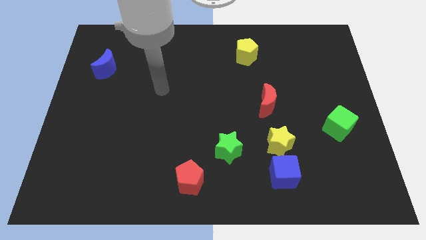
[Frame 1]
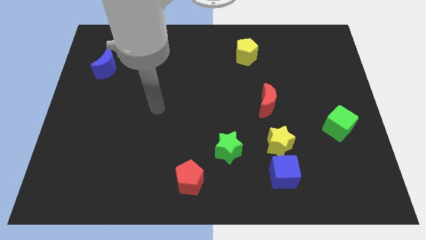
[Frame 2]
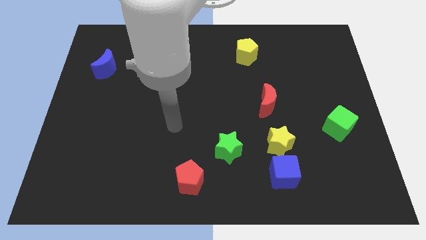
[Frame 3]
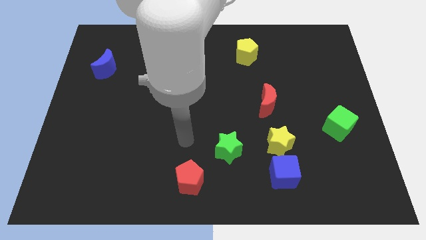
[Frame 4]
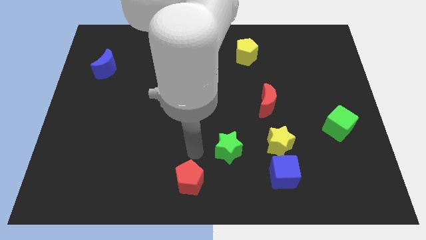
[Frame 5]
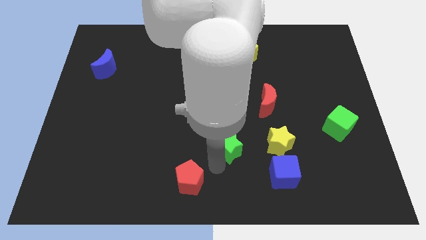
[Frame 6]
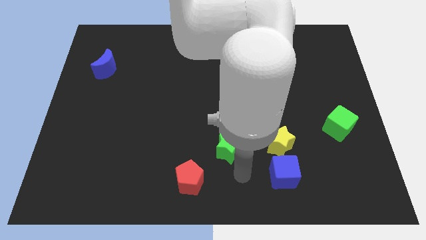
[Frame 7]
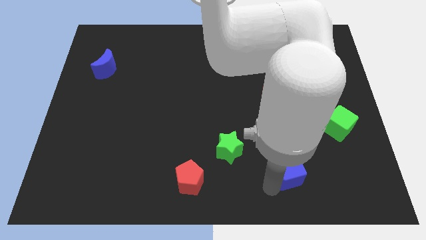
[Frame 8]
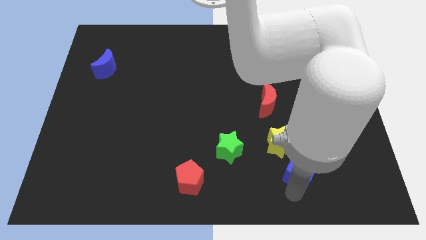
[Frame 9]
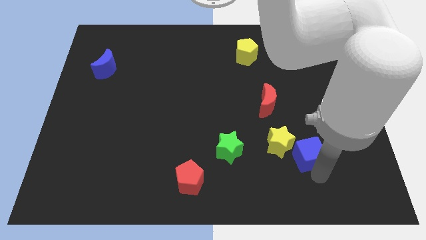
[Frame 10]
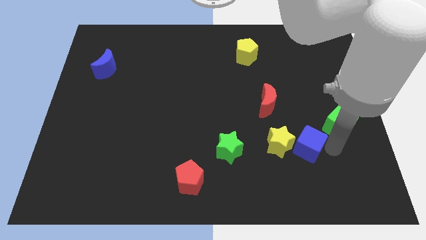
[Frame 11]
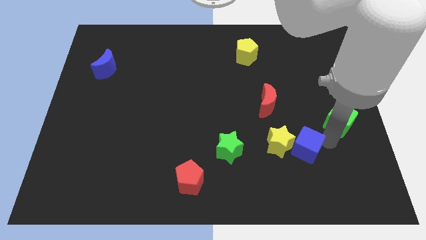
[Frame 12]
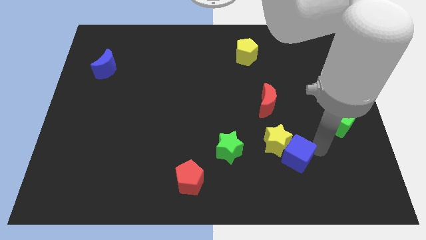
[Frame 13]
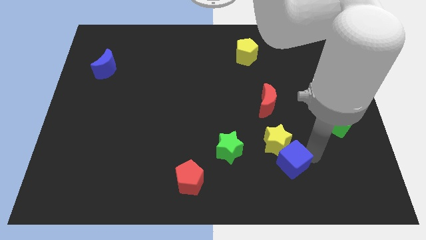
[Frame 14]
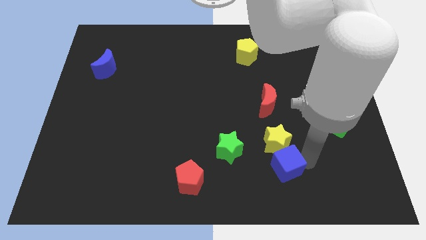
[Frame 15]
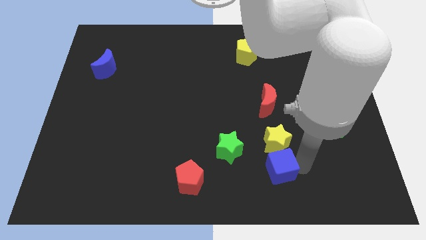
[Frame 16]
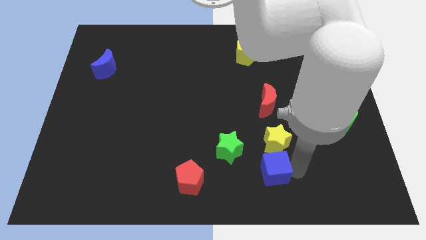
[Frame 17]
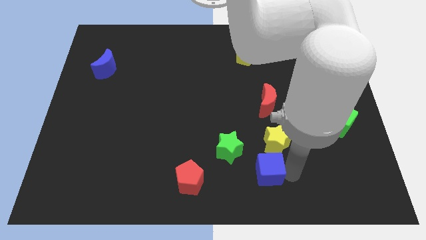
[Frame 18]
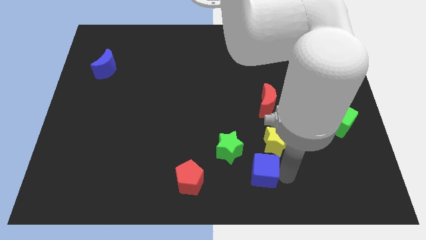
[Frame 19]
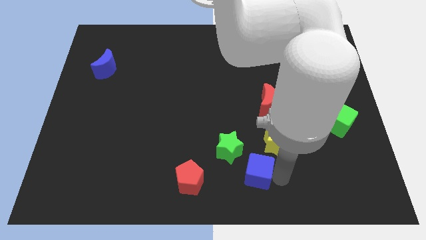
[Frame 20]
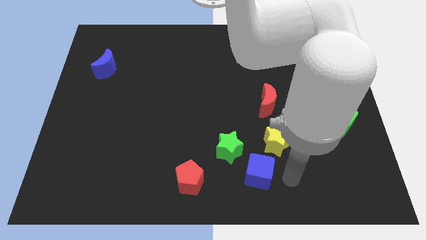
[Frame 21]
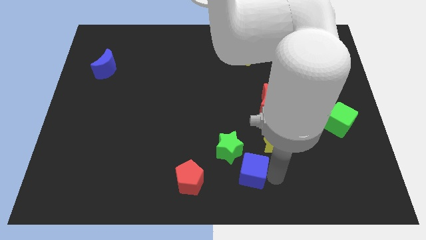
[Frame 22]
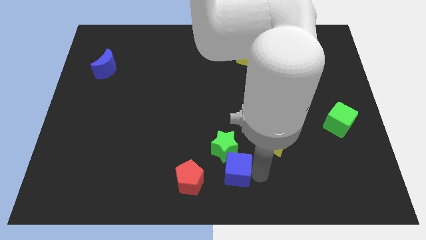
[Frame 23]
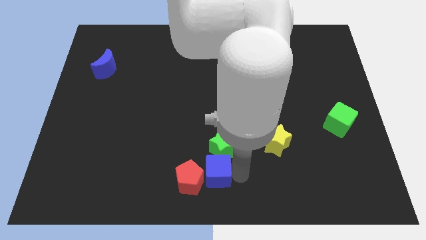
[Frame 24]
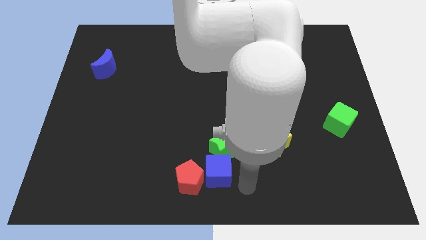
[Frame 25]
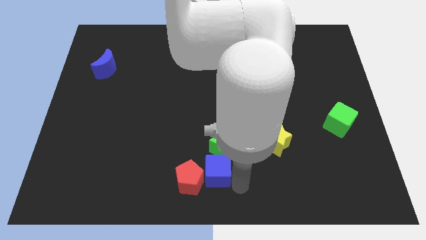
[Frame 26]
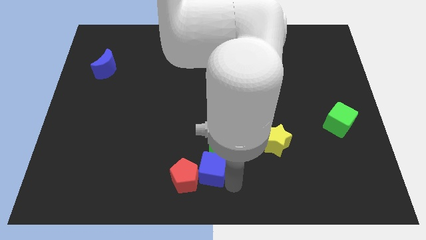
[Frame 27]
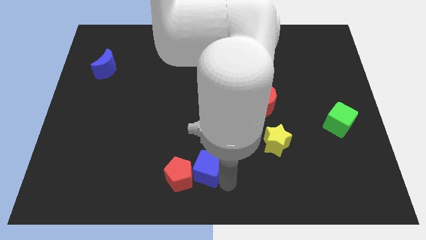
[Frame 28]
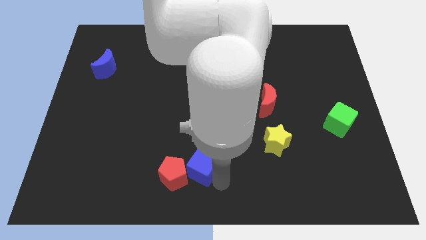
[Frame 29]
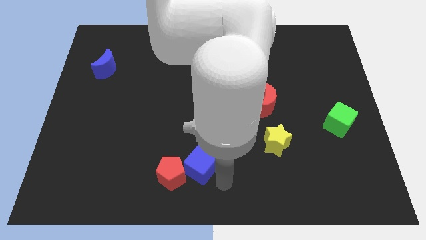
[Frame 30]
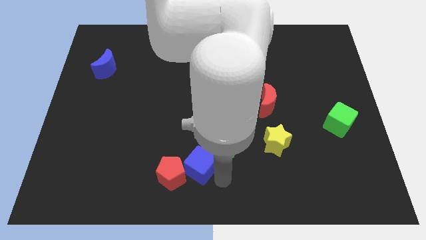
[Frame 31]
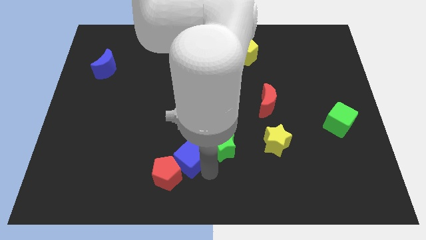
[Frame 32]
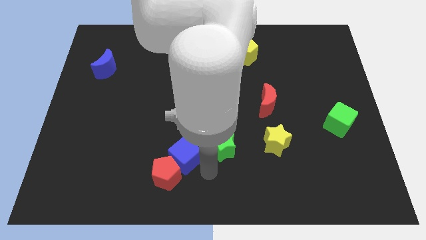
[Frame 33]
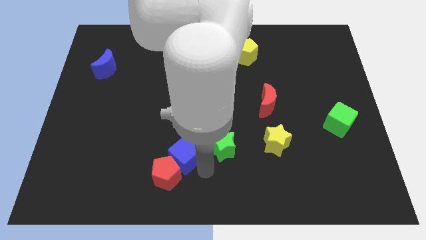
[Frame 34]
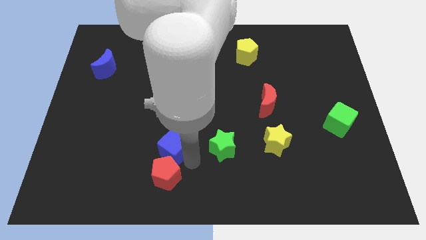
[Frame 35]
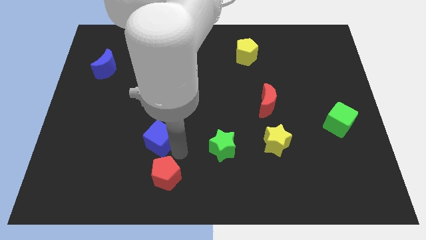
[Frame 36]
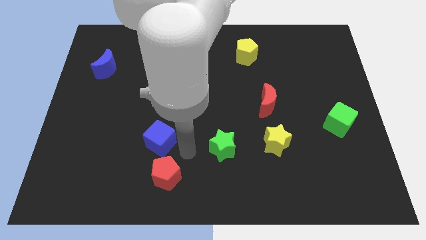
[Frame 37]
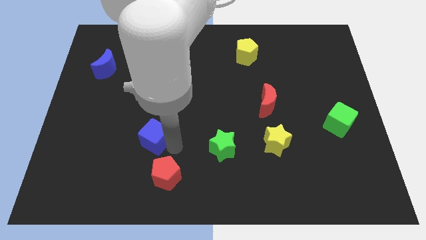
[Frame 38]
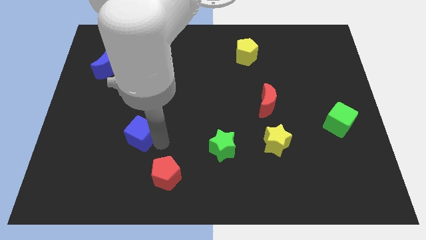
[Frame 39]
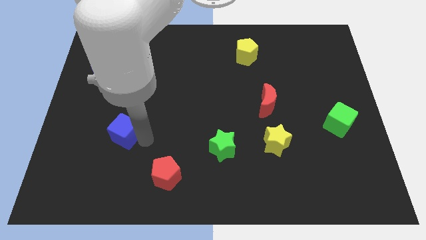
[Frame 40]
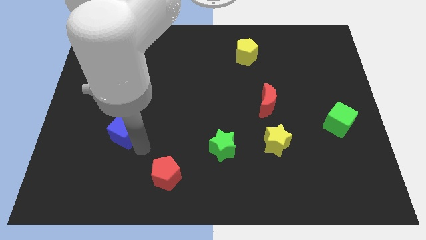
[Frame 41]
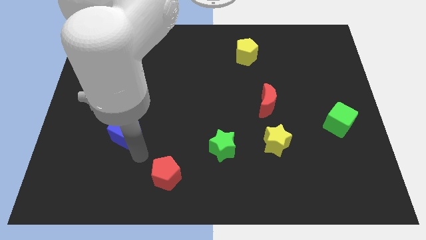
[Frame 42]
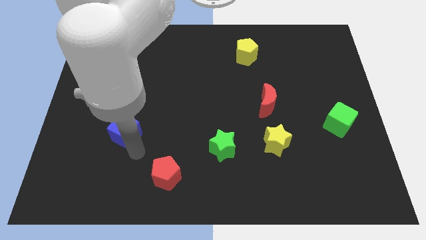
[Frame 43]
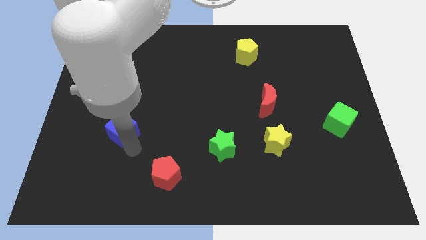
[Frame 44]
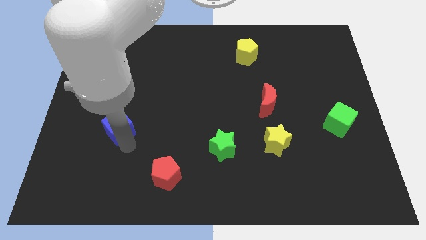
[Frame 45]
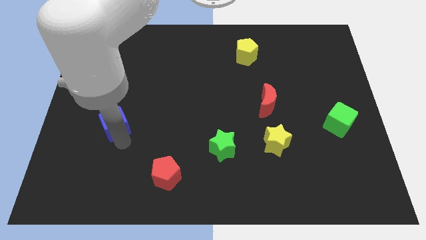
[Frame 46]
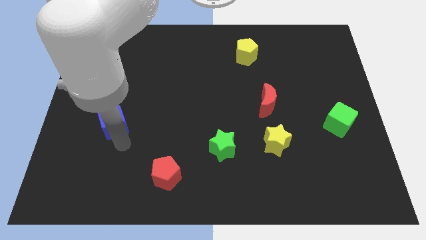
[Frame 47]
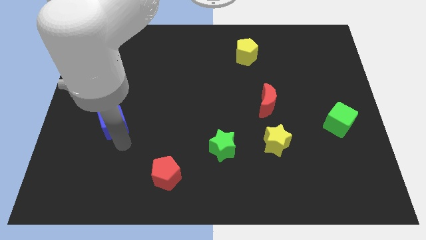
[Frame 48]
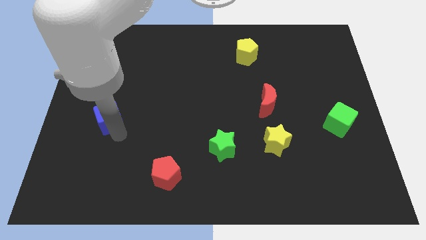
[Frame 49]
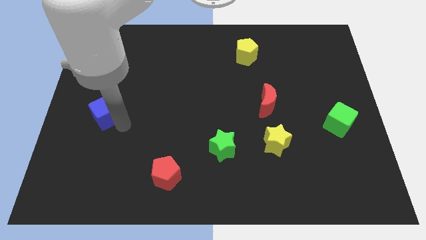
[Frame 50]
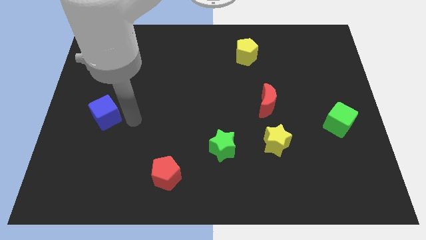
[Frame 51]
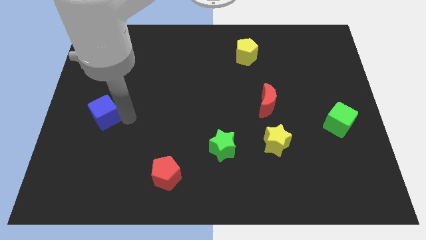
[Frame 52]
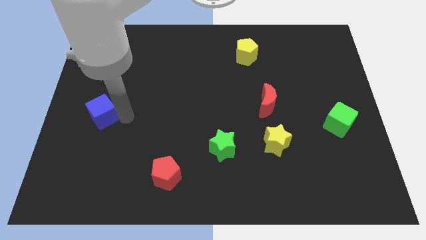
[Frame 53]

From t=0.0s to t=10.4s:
slide the blue cube to the left side of the board

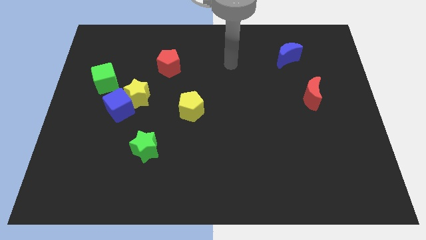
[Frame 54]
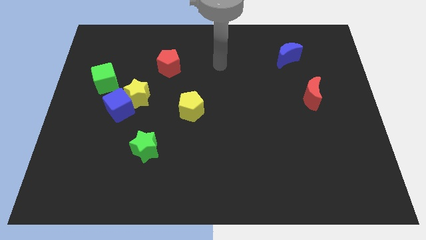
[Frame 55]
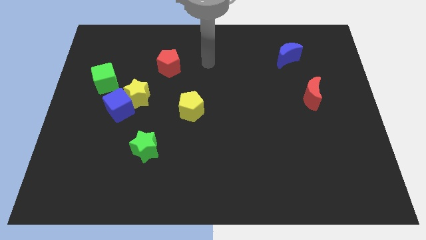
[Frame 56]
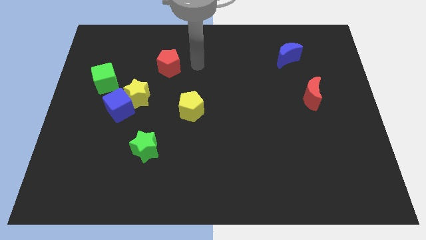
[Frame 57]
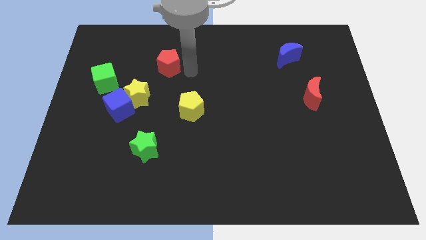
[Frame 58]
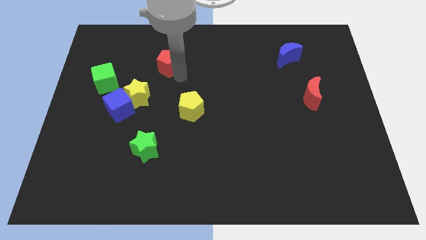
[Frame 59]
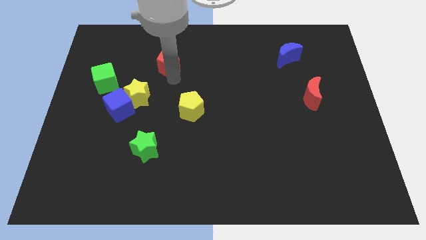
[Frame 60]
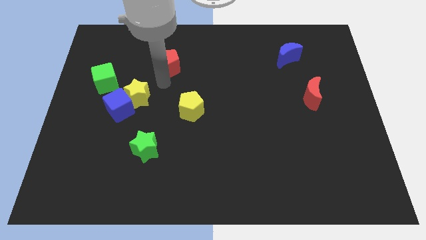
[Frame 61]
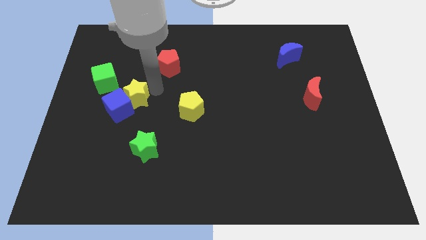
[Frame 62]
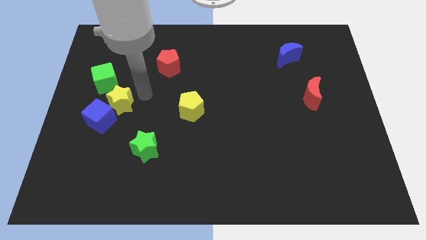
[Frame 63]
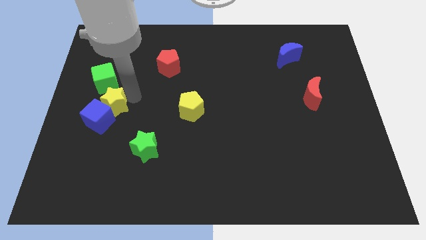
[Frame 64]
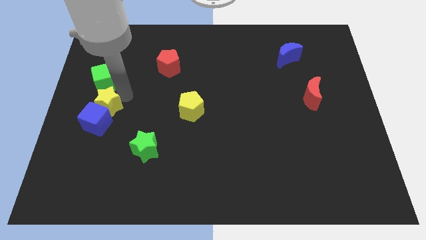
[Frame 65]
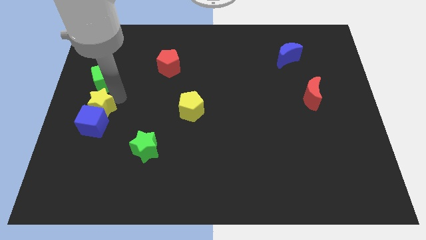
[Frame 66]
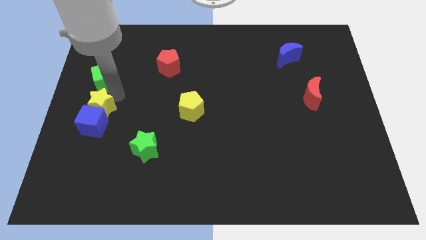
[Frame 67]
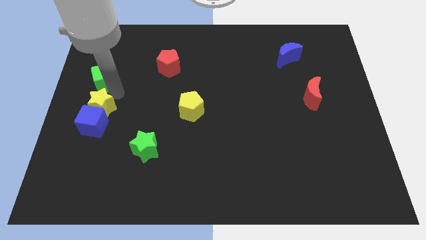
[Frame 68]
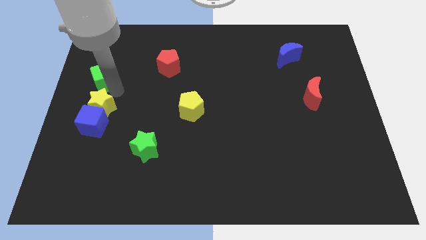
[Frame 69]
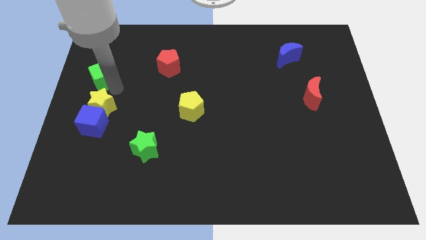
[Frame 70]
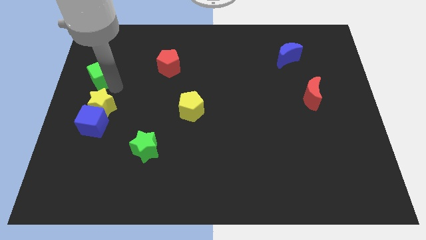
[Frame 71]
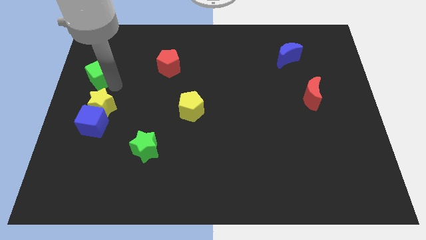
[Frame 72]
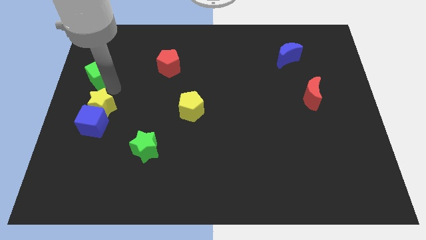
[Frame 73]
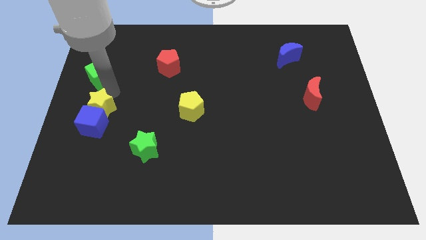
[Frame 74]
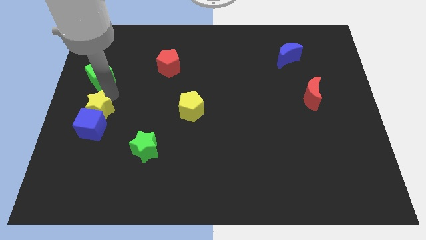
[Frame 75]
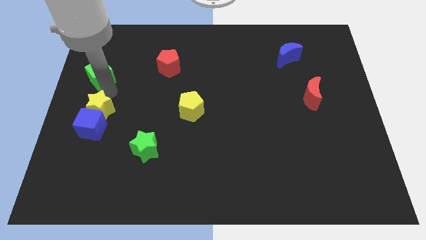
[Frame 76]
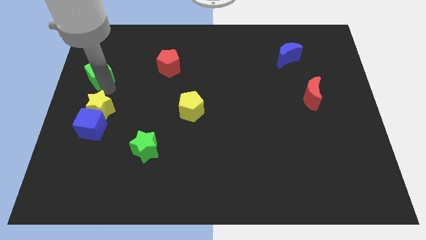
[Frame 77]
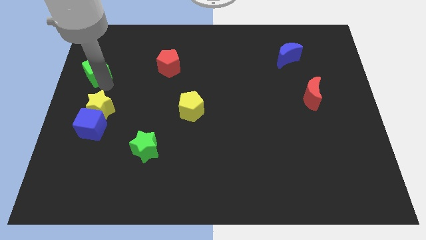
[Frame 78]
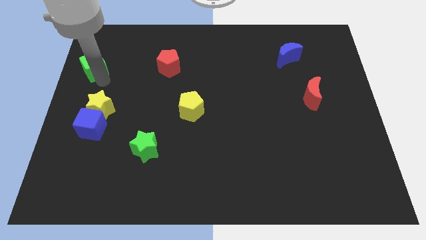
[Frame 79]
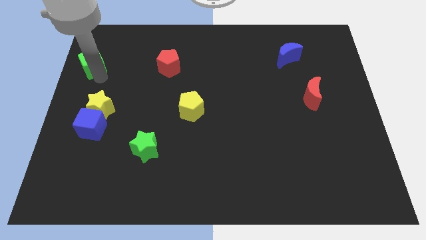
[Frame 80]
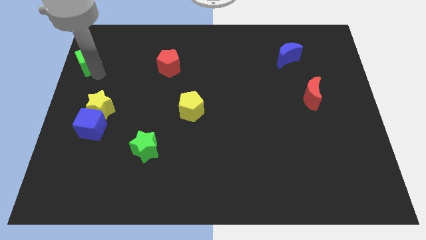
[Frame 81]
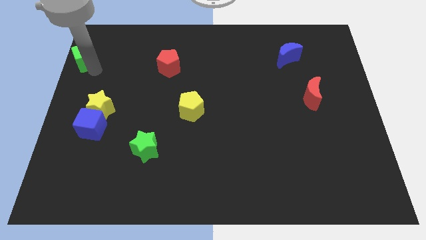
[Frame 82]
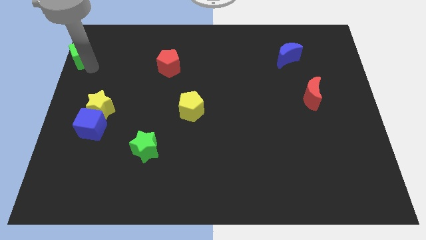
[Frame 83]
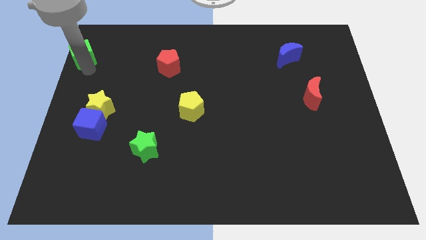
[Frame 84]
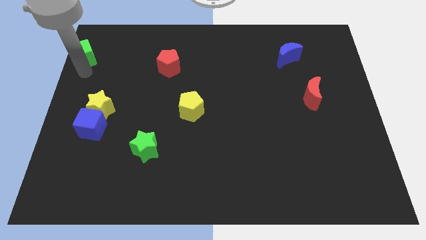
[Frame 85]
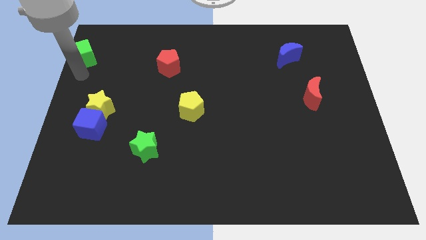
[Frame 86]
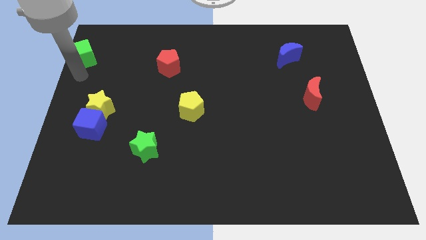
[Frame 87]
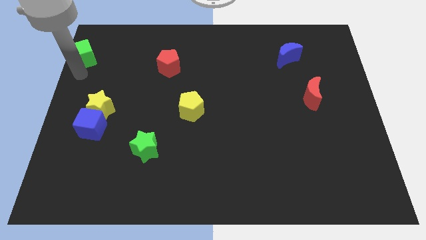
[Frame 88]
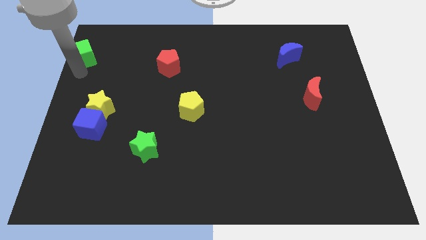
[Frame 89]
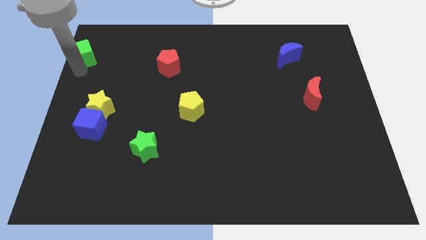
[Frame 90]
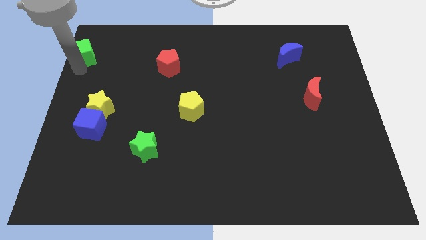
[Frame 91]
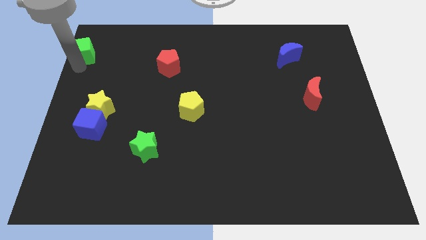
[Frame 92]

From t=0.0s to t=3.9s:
move the green cube to the top left
